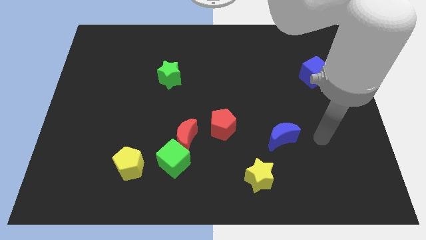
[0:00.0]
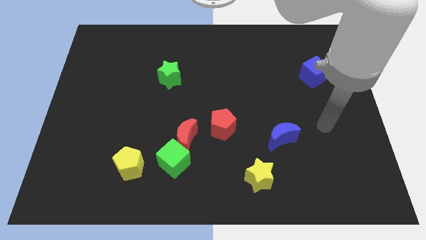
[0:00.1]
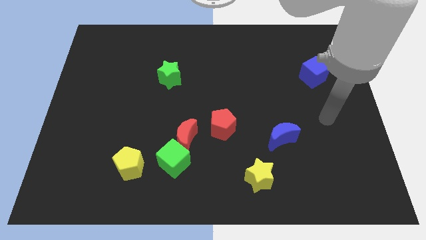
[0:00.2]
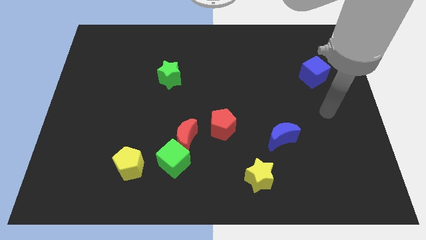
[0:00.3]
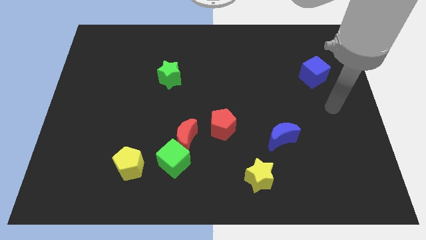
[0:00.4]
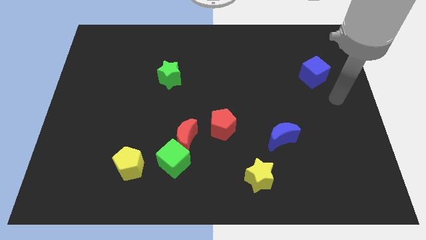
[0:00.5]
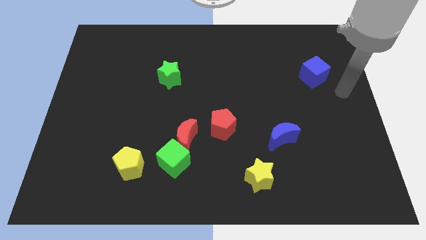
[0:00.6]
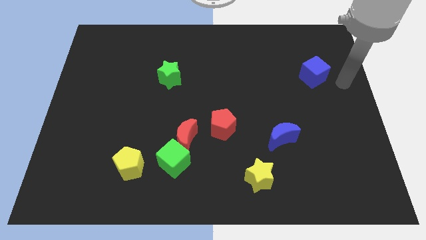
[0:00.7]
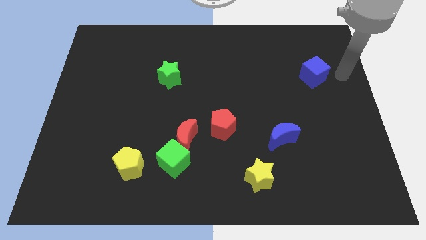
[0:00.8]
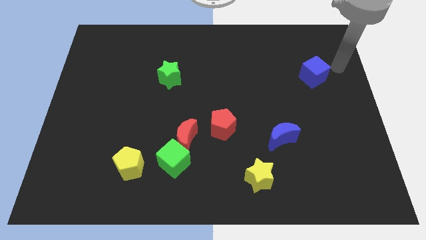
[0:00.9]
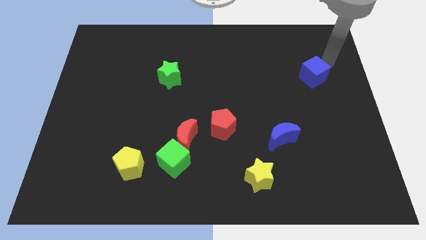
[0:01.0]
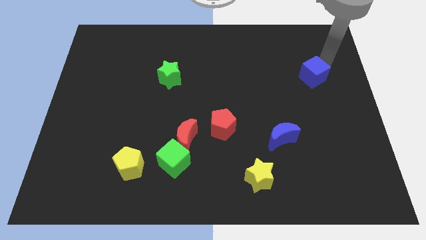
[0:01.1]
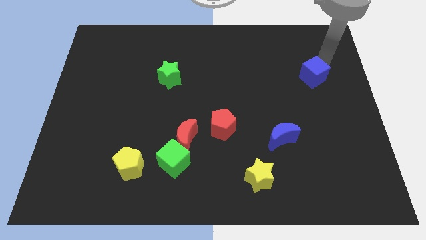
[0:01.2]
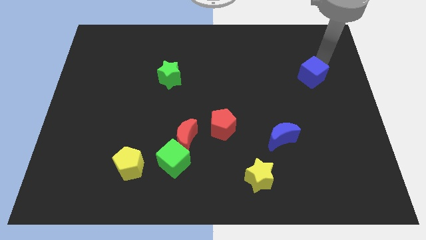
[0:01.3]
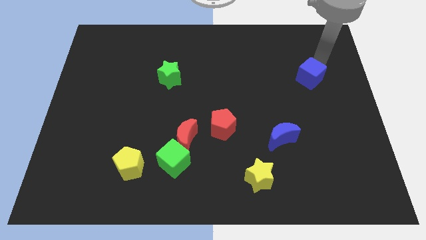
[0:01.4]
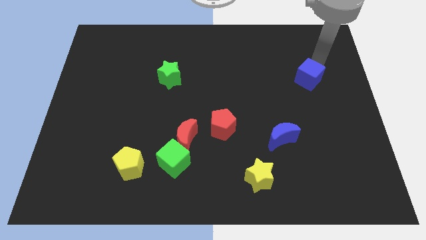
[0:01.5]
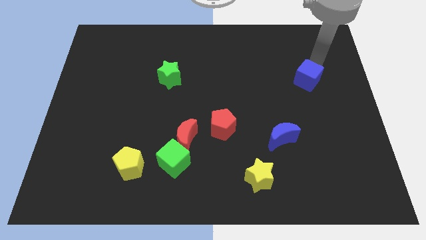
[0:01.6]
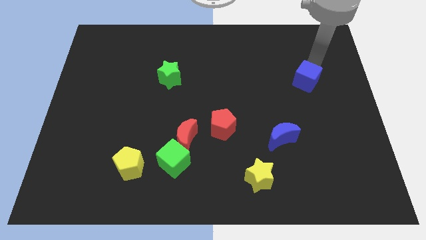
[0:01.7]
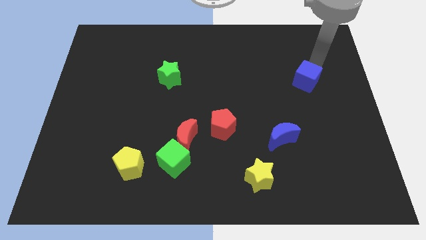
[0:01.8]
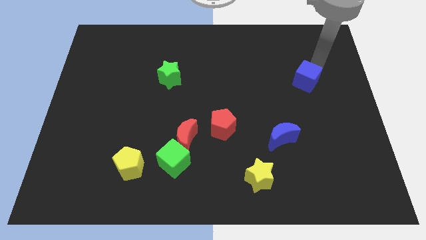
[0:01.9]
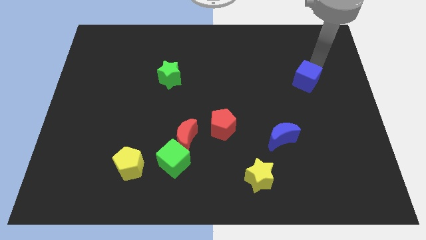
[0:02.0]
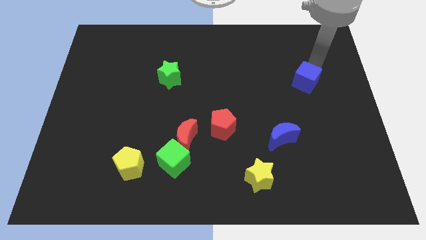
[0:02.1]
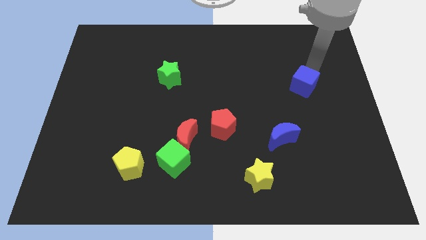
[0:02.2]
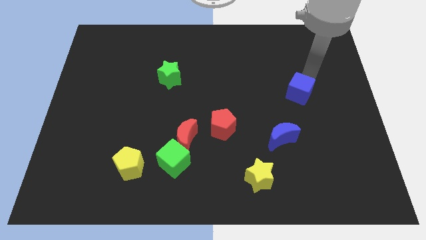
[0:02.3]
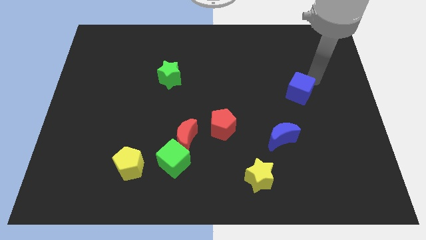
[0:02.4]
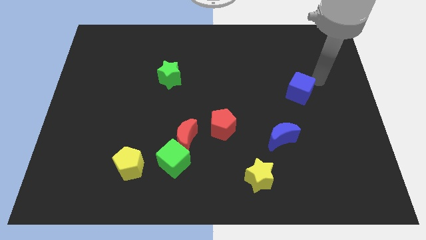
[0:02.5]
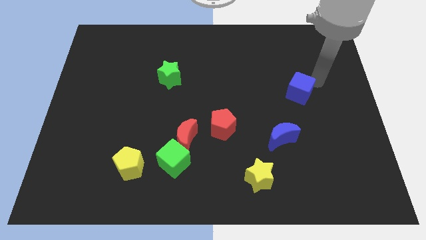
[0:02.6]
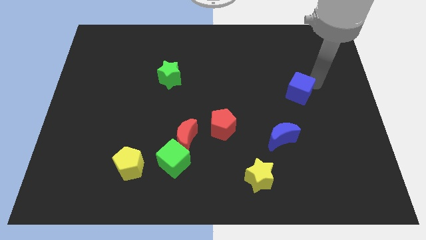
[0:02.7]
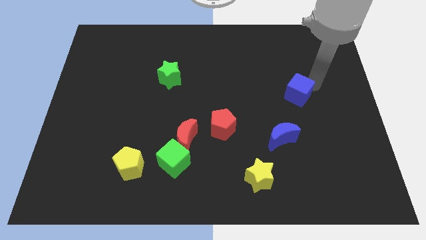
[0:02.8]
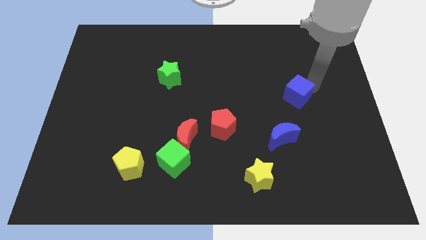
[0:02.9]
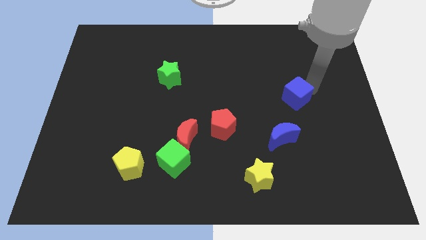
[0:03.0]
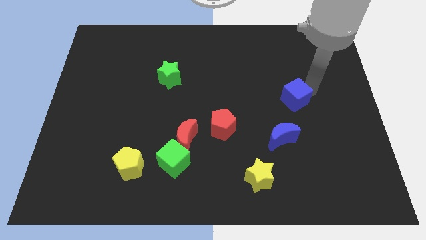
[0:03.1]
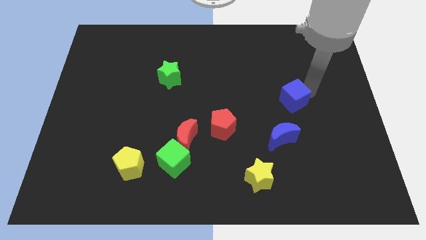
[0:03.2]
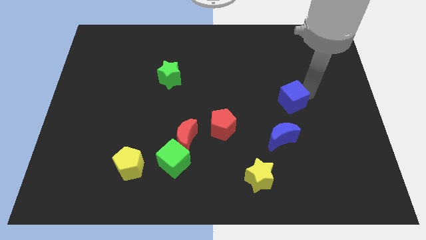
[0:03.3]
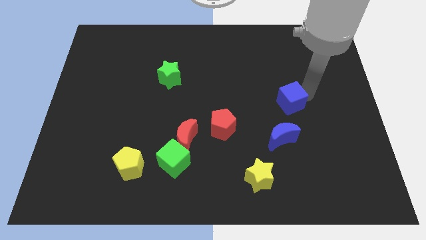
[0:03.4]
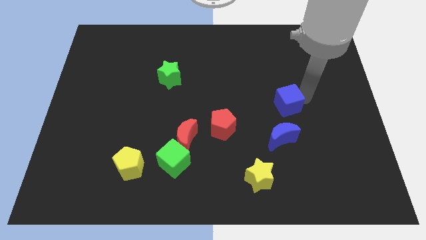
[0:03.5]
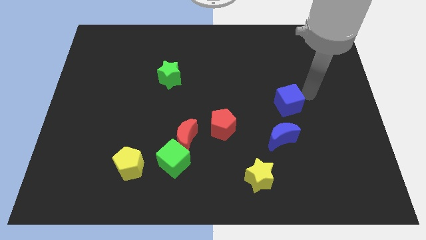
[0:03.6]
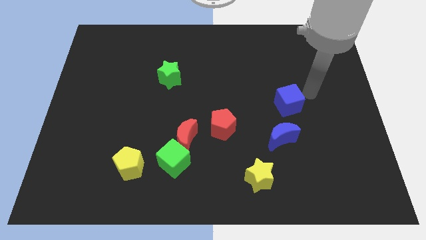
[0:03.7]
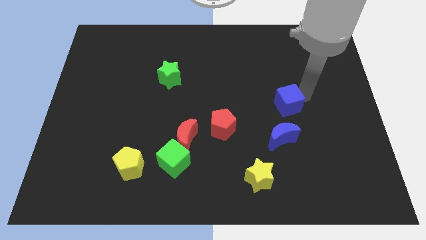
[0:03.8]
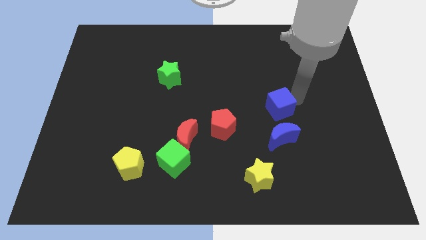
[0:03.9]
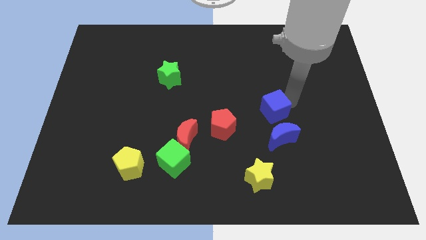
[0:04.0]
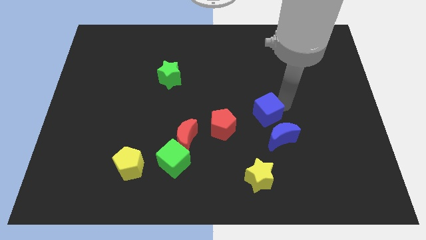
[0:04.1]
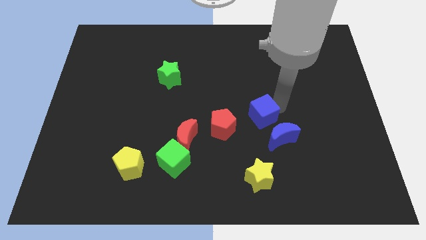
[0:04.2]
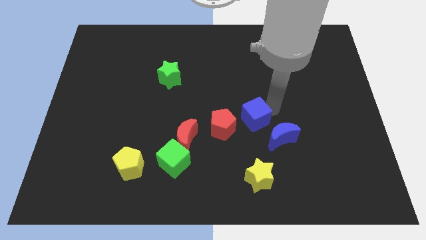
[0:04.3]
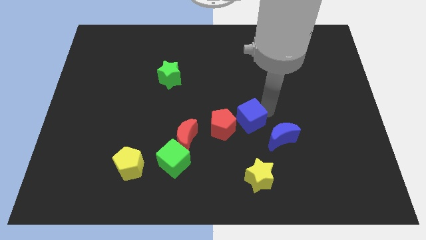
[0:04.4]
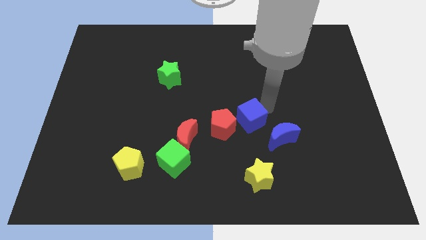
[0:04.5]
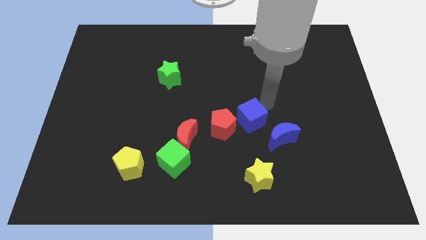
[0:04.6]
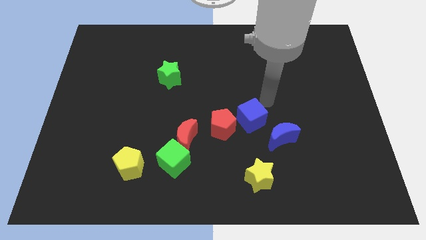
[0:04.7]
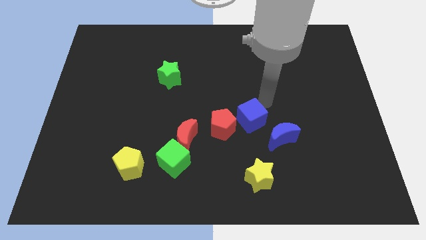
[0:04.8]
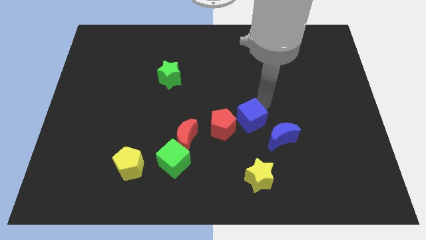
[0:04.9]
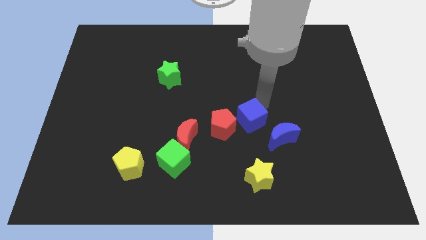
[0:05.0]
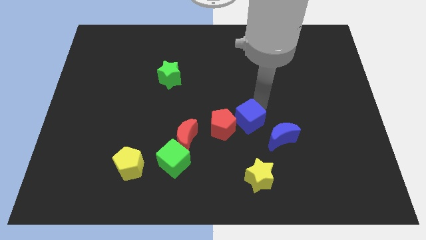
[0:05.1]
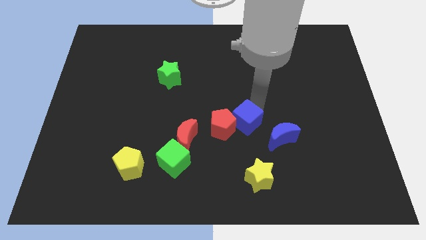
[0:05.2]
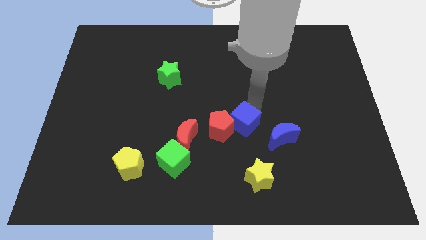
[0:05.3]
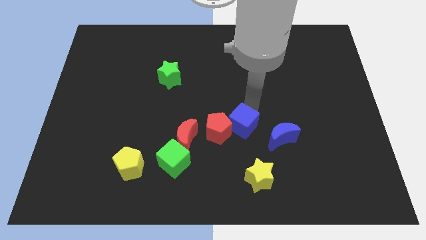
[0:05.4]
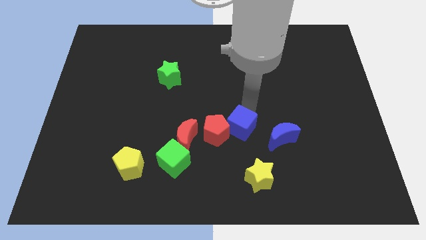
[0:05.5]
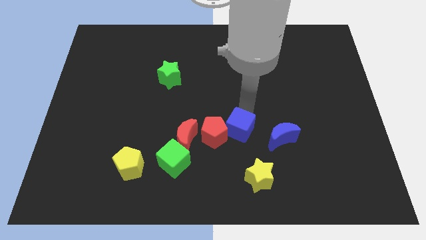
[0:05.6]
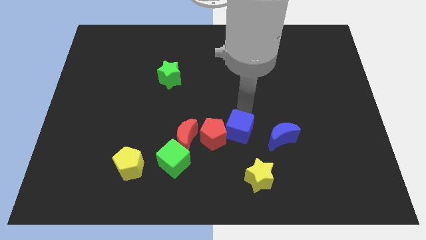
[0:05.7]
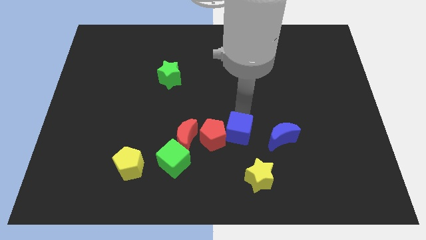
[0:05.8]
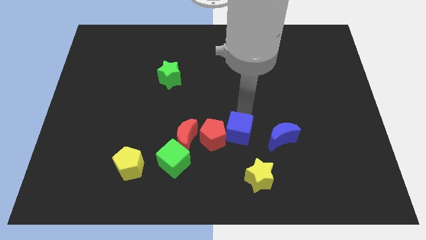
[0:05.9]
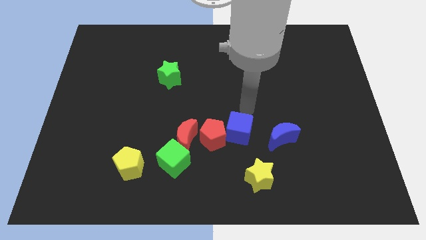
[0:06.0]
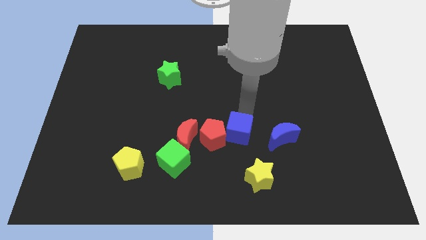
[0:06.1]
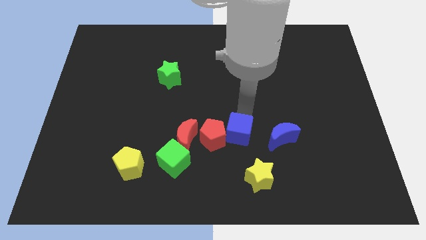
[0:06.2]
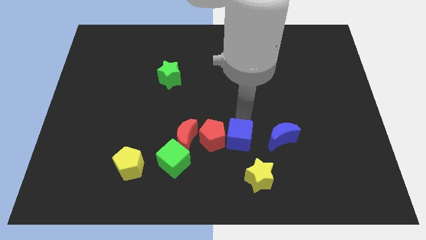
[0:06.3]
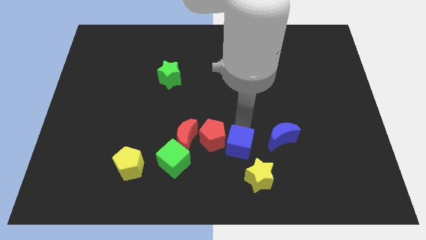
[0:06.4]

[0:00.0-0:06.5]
put the blue cube right of the green cube
